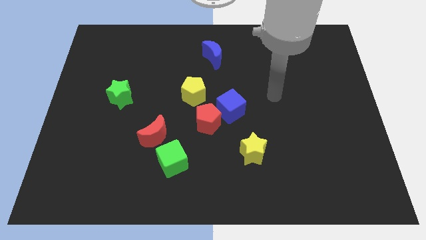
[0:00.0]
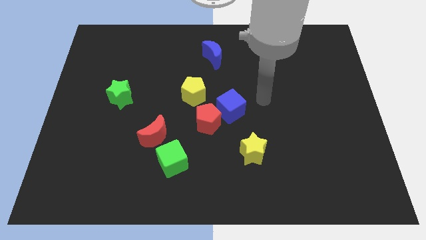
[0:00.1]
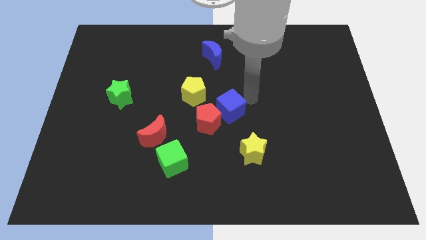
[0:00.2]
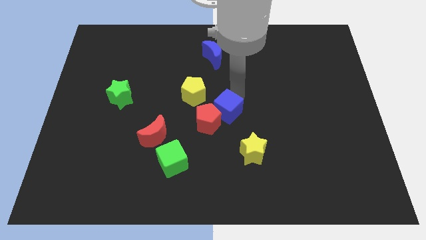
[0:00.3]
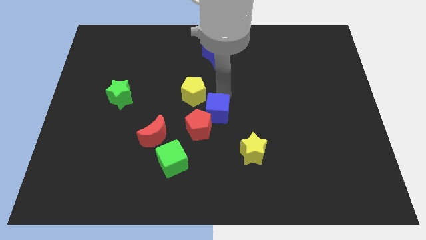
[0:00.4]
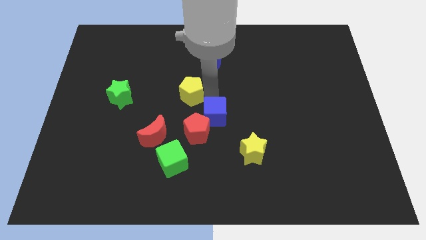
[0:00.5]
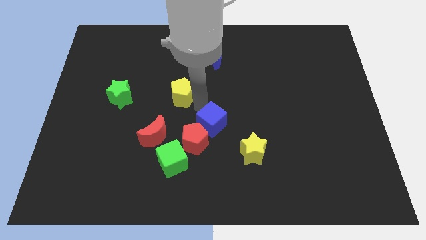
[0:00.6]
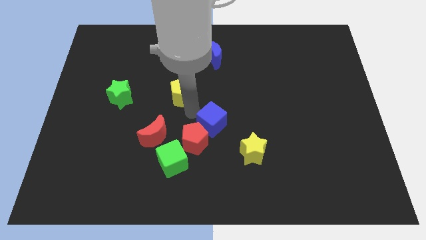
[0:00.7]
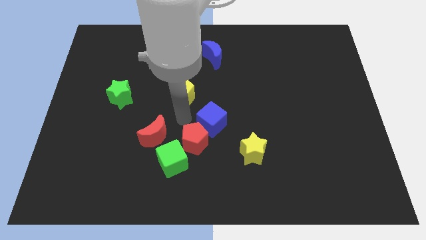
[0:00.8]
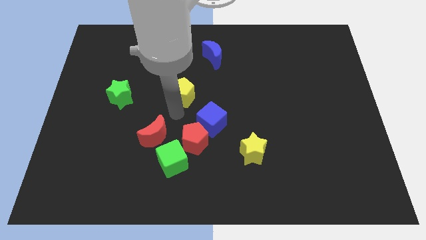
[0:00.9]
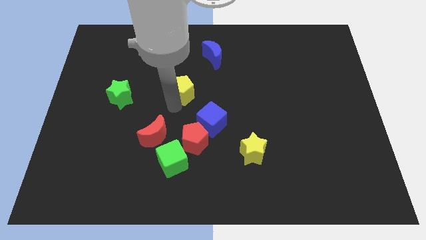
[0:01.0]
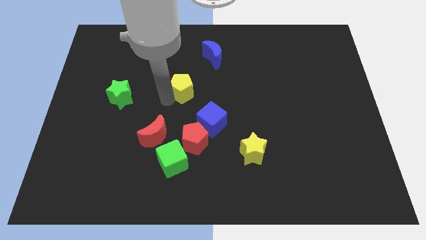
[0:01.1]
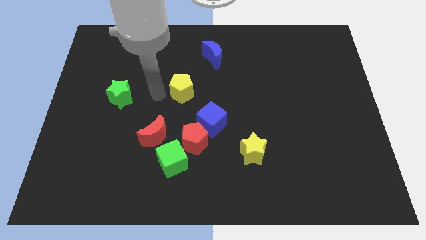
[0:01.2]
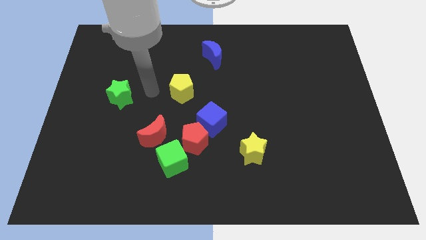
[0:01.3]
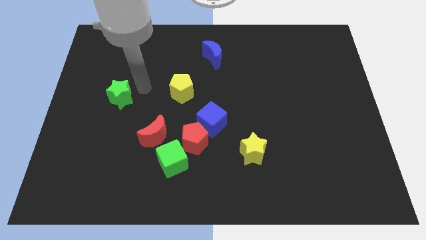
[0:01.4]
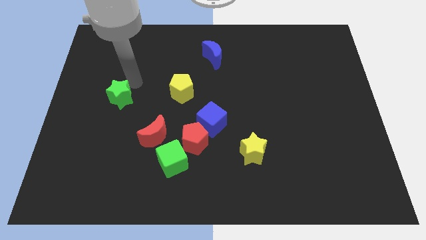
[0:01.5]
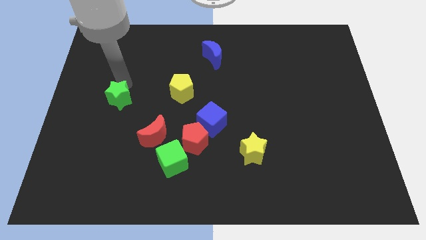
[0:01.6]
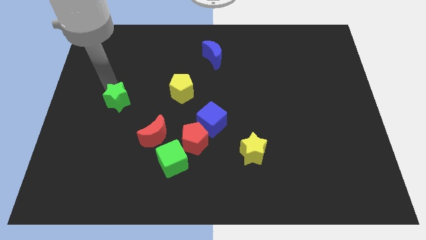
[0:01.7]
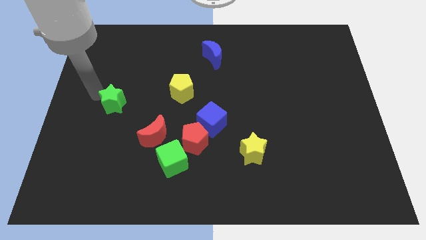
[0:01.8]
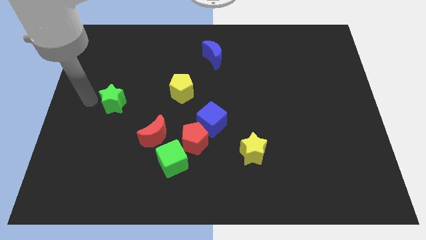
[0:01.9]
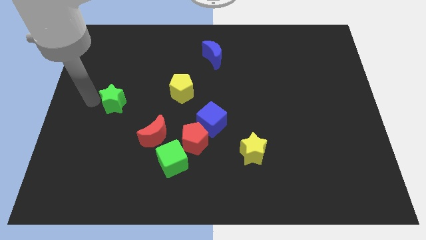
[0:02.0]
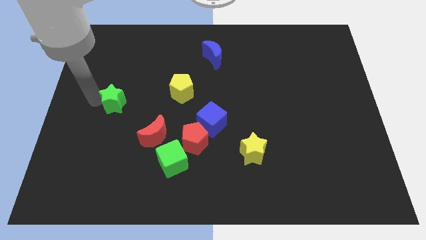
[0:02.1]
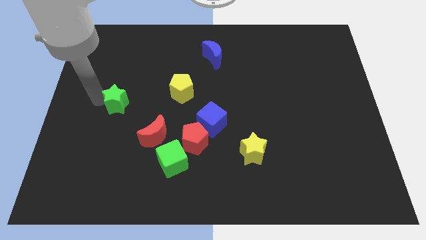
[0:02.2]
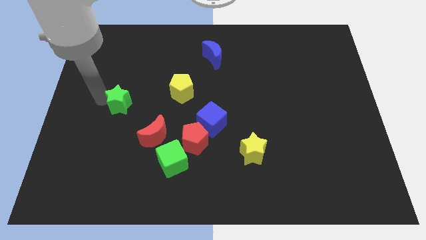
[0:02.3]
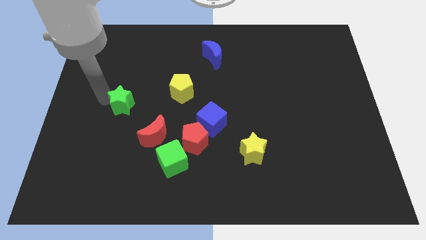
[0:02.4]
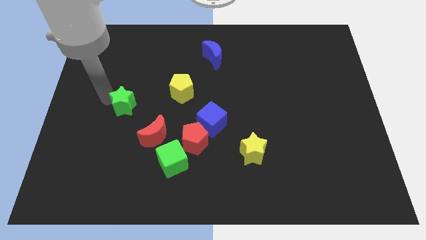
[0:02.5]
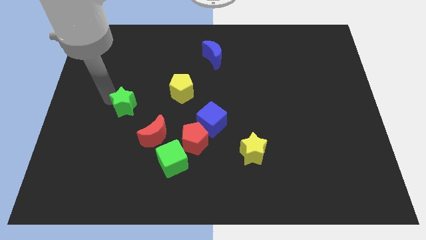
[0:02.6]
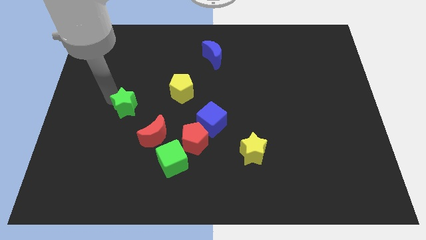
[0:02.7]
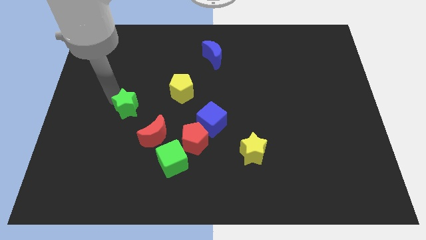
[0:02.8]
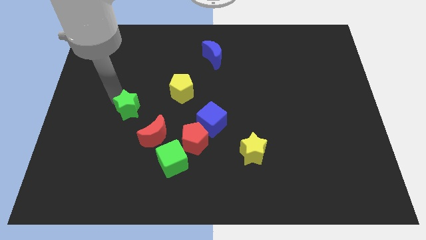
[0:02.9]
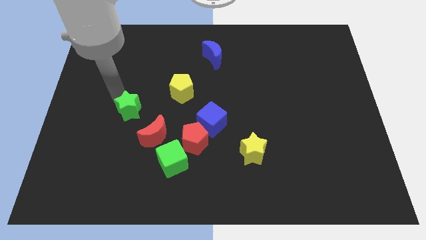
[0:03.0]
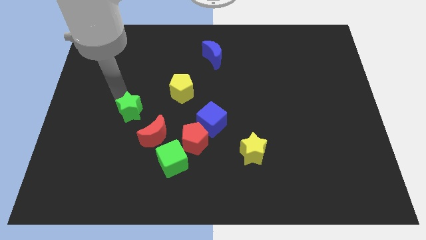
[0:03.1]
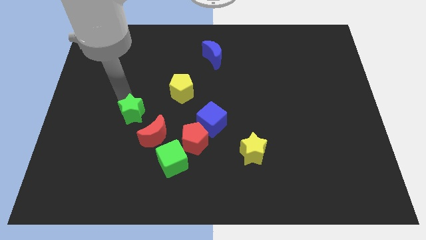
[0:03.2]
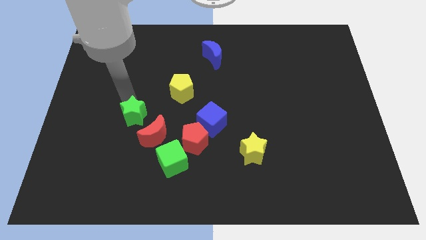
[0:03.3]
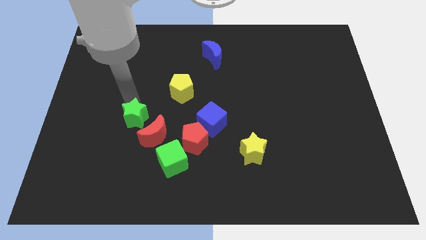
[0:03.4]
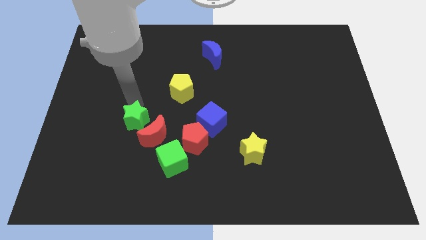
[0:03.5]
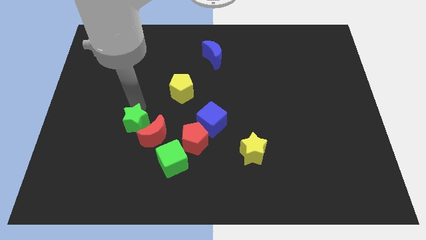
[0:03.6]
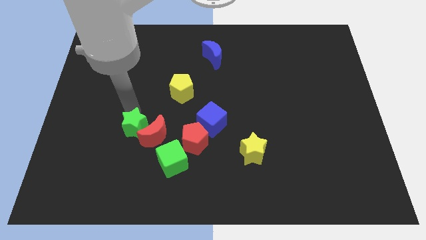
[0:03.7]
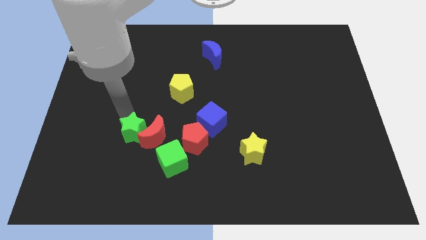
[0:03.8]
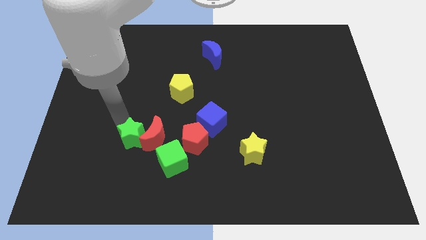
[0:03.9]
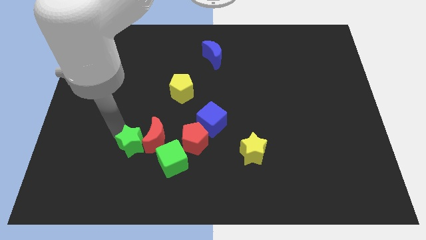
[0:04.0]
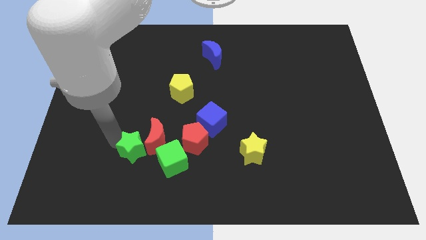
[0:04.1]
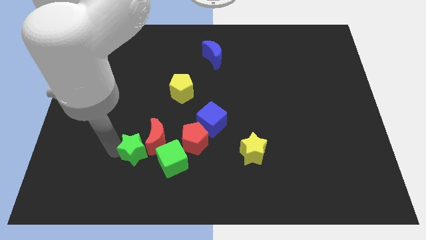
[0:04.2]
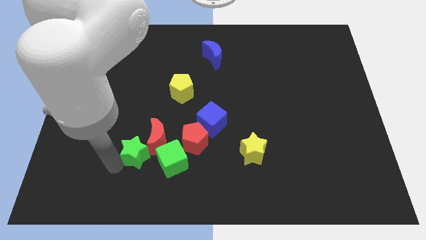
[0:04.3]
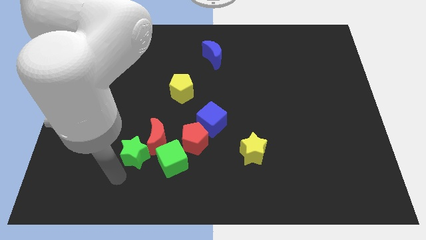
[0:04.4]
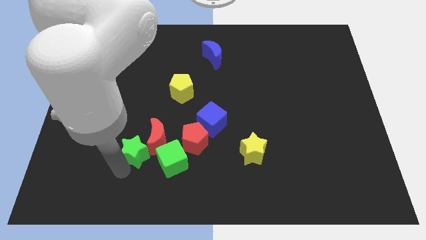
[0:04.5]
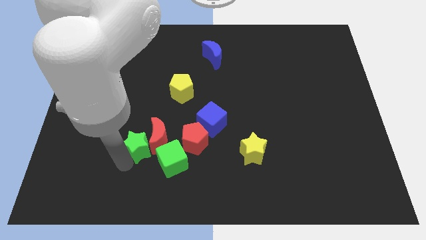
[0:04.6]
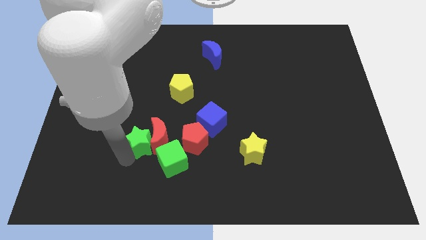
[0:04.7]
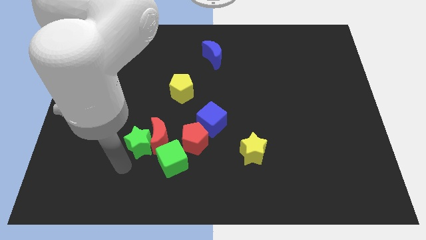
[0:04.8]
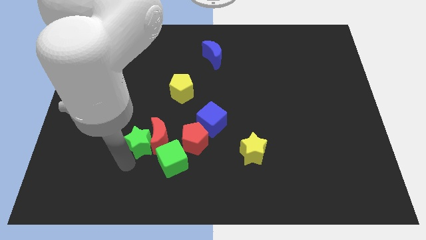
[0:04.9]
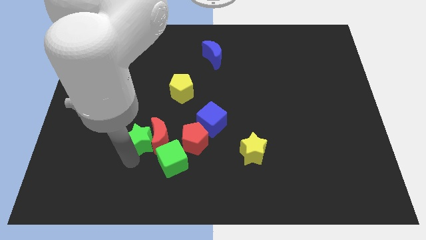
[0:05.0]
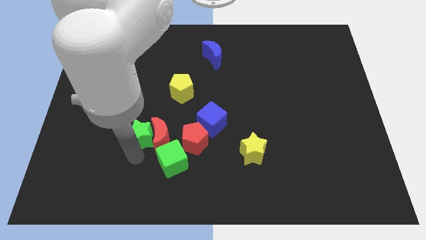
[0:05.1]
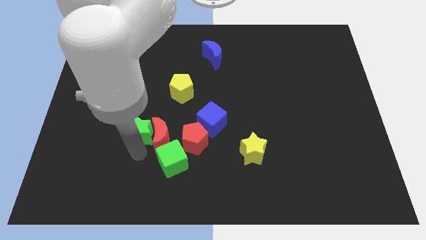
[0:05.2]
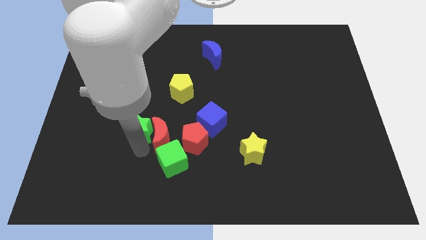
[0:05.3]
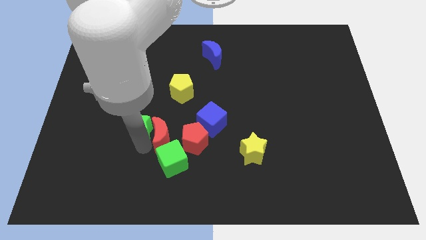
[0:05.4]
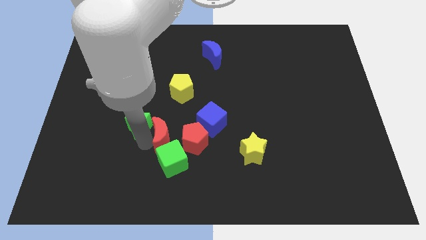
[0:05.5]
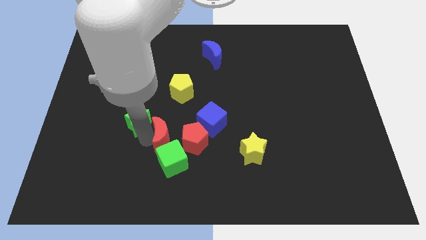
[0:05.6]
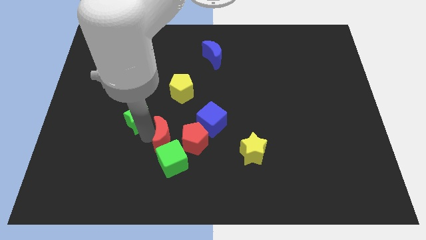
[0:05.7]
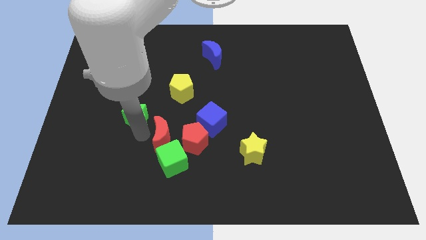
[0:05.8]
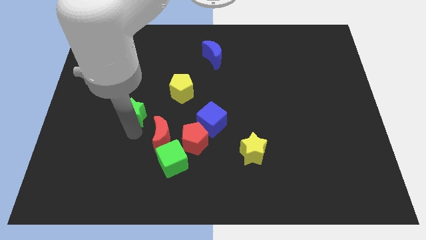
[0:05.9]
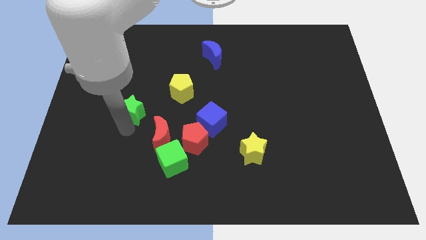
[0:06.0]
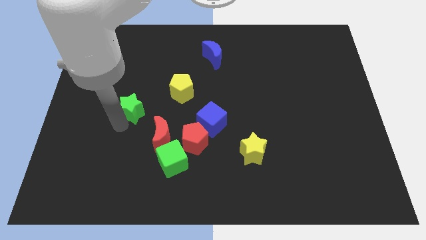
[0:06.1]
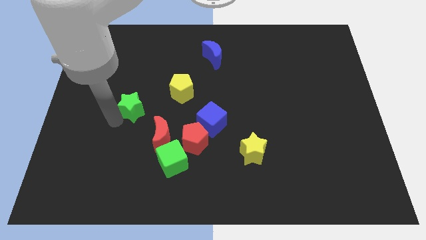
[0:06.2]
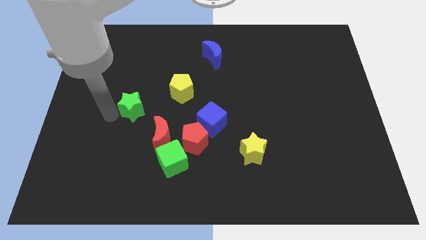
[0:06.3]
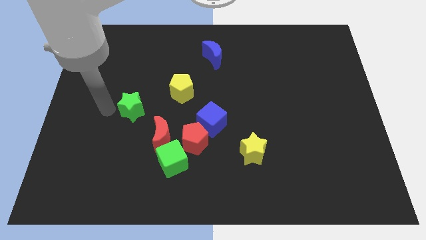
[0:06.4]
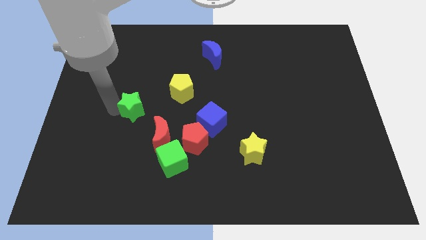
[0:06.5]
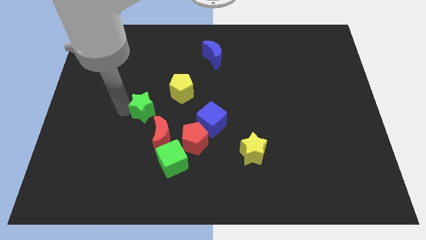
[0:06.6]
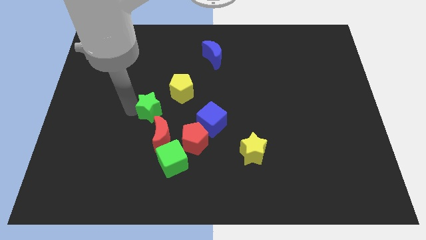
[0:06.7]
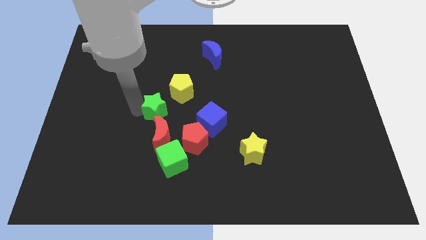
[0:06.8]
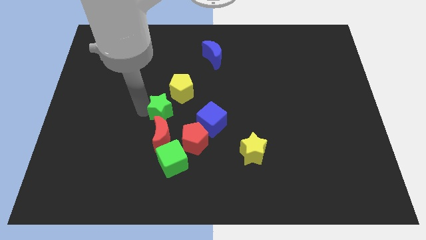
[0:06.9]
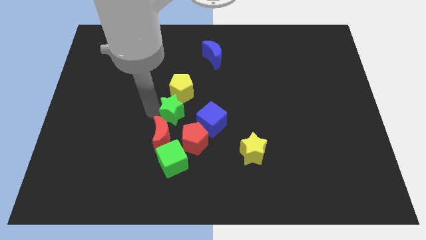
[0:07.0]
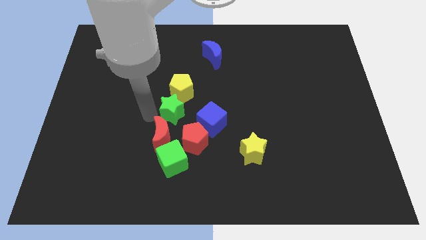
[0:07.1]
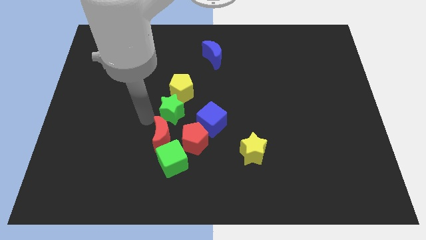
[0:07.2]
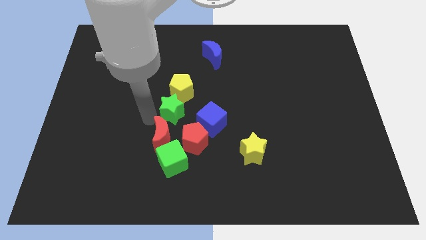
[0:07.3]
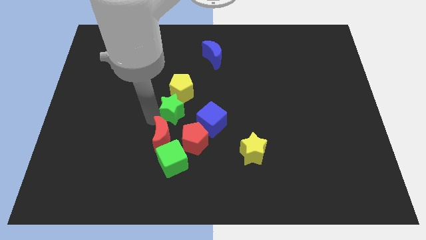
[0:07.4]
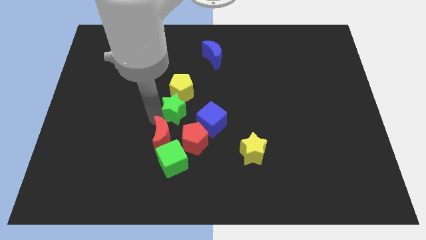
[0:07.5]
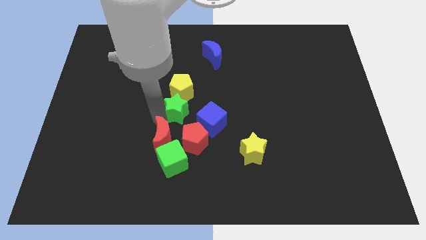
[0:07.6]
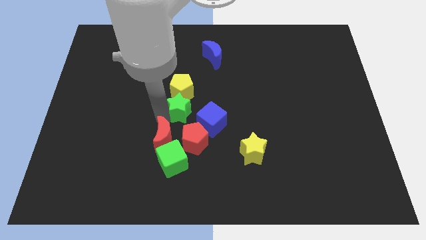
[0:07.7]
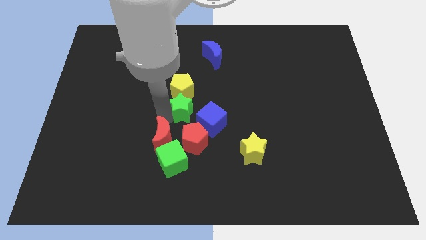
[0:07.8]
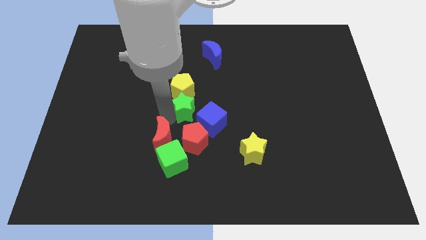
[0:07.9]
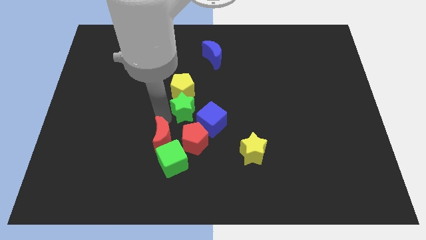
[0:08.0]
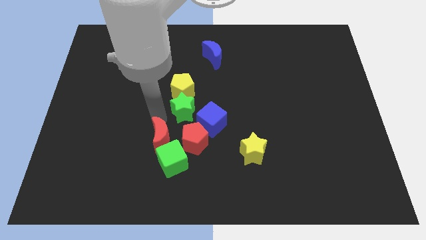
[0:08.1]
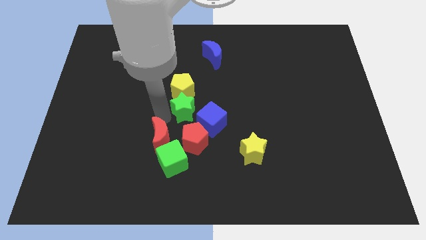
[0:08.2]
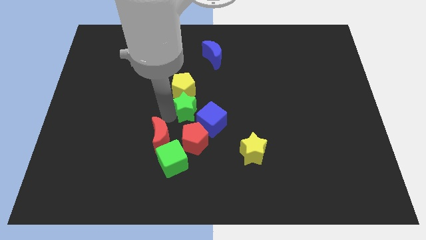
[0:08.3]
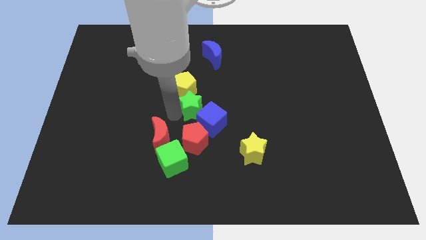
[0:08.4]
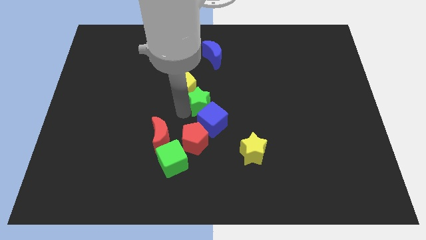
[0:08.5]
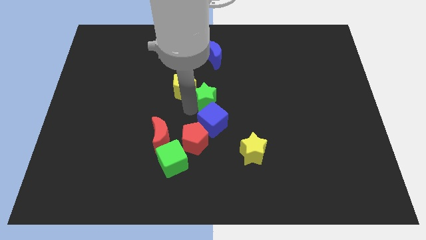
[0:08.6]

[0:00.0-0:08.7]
slide the green star to the right
